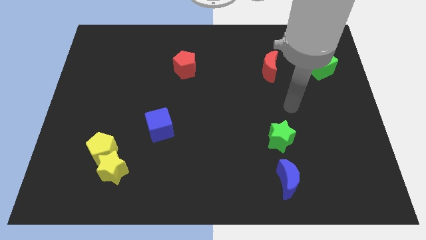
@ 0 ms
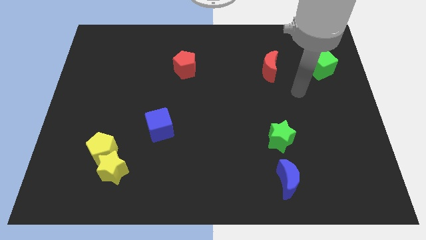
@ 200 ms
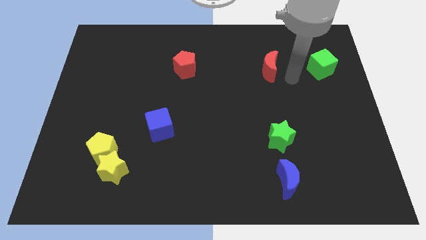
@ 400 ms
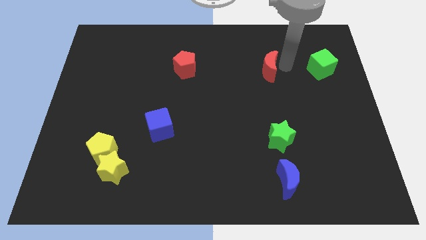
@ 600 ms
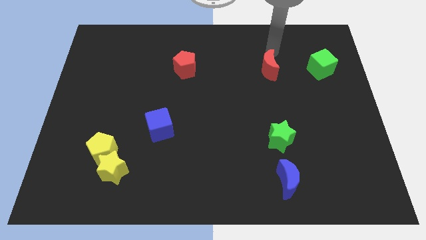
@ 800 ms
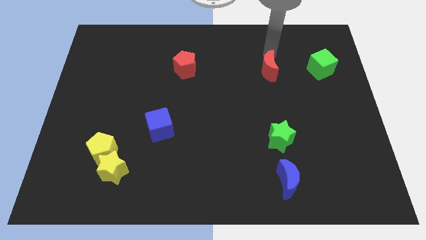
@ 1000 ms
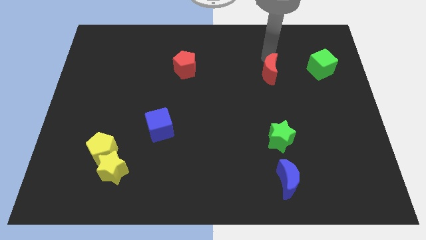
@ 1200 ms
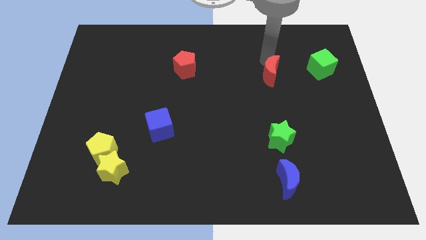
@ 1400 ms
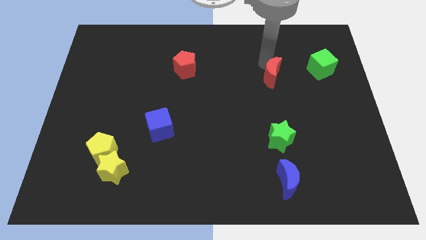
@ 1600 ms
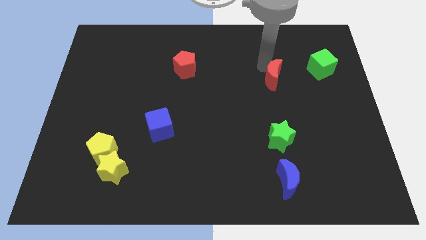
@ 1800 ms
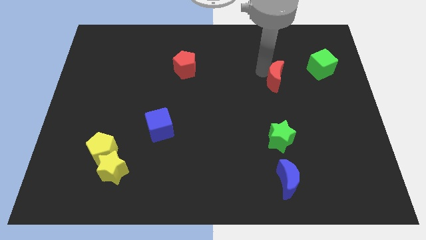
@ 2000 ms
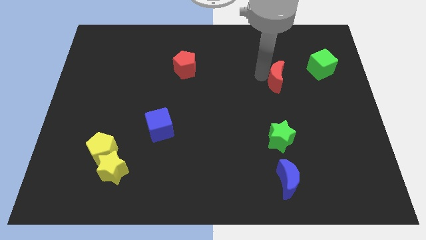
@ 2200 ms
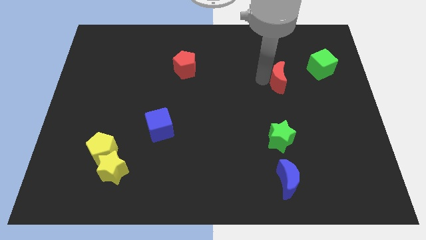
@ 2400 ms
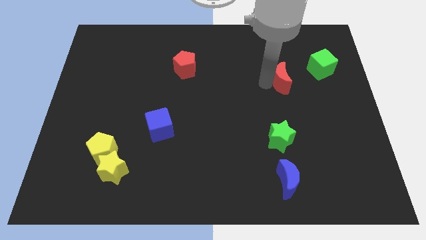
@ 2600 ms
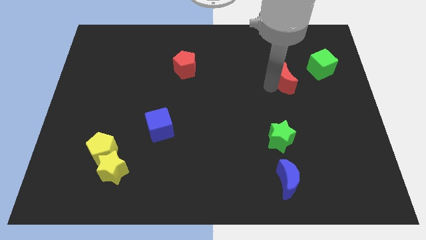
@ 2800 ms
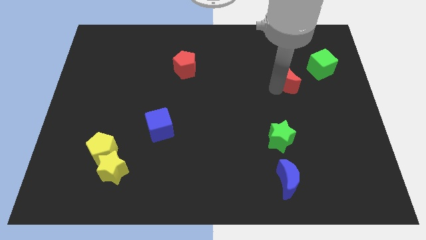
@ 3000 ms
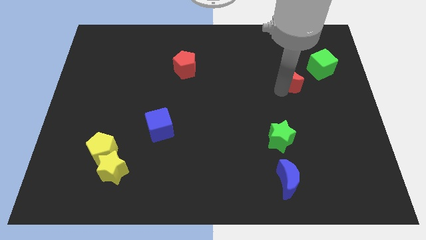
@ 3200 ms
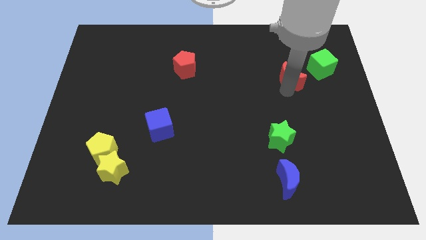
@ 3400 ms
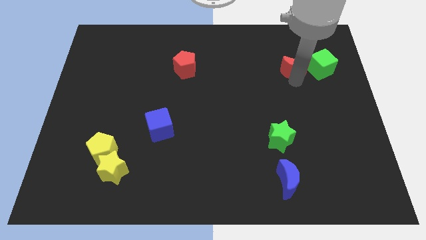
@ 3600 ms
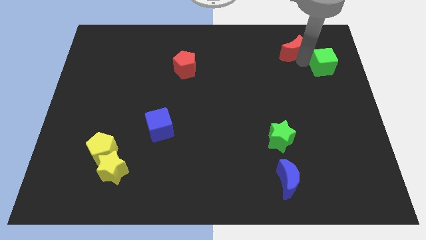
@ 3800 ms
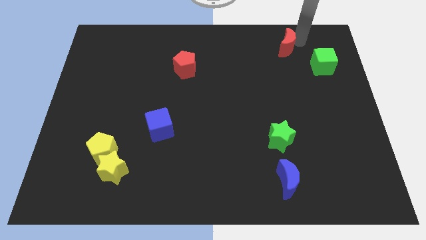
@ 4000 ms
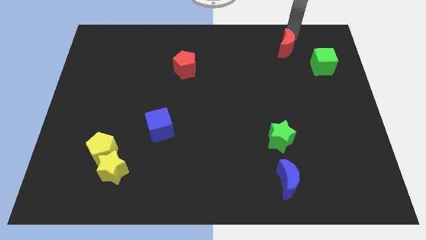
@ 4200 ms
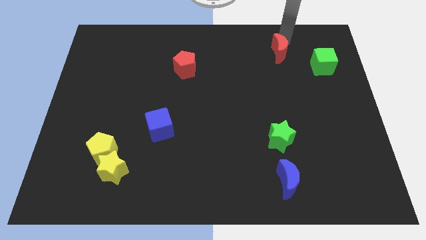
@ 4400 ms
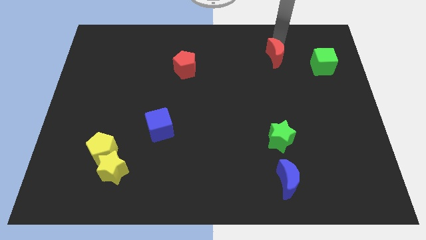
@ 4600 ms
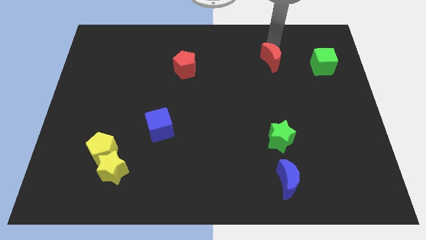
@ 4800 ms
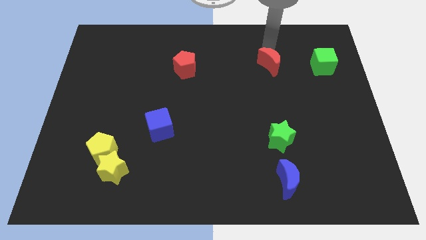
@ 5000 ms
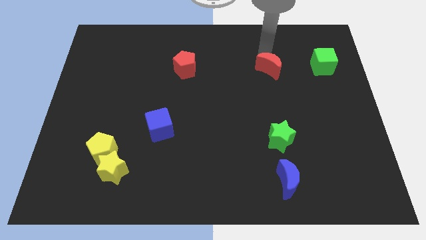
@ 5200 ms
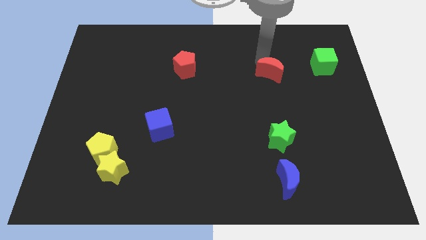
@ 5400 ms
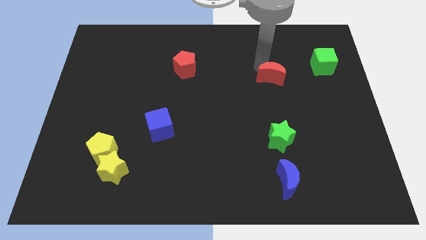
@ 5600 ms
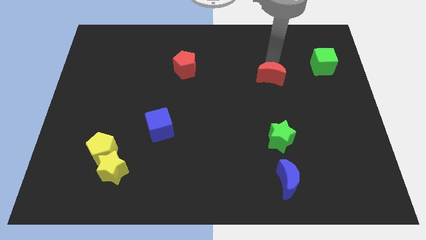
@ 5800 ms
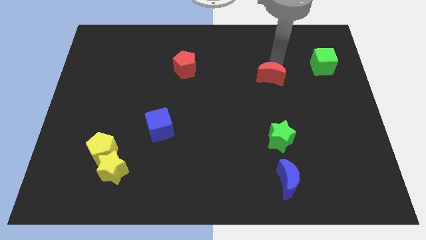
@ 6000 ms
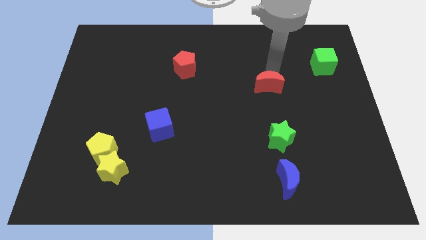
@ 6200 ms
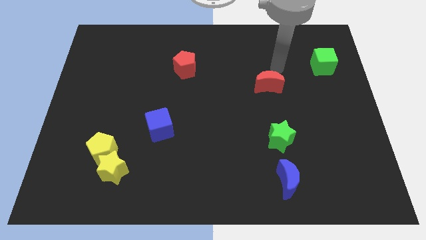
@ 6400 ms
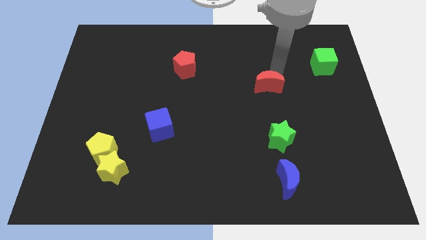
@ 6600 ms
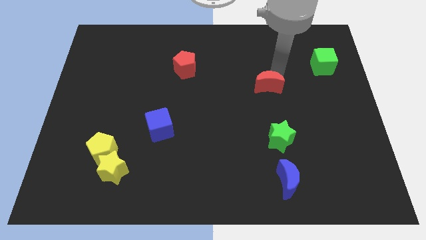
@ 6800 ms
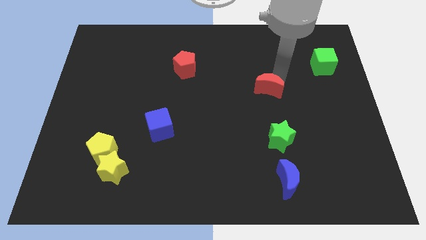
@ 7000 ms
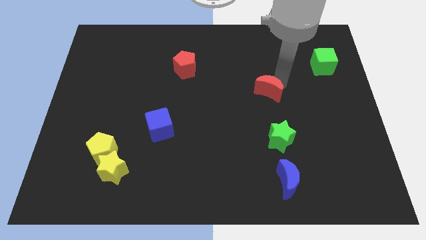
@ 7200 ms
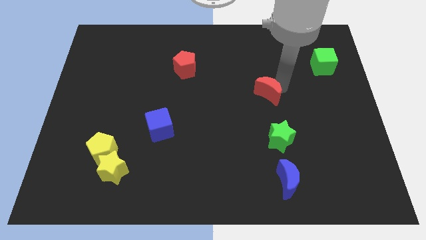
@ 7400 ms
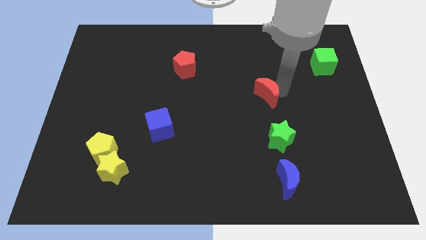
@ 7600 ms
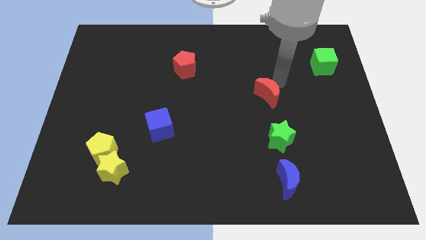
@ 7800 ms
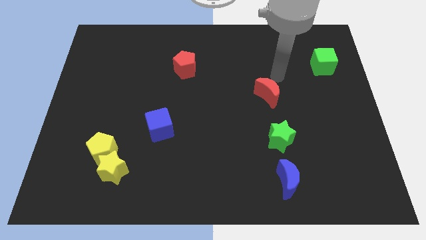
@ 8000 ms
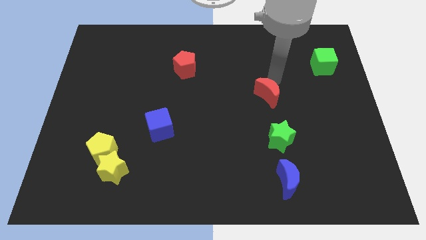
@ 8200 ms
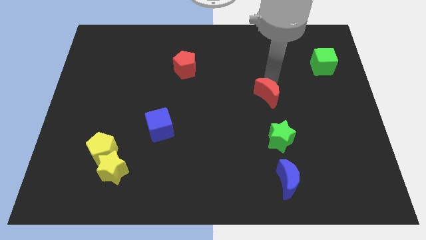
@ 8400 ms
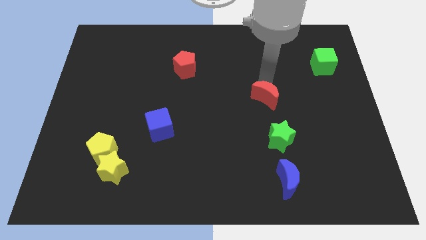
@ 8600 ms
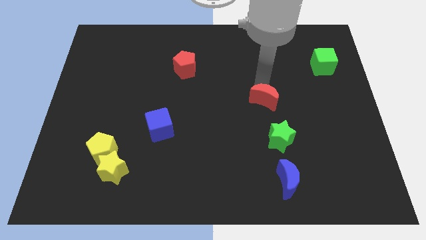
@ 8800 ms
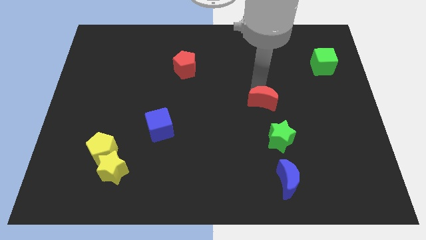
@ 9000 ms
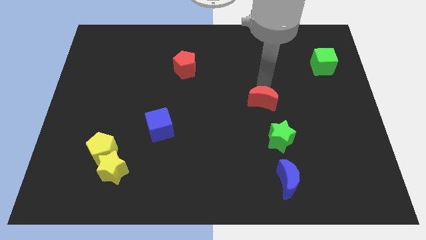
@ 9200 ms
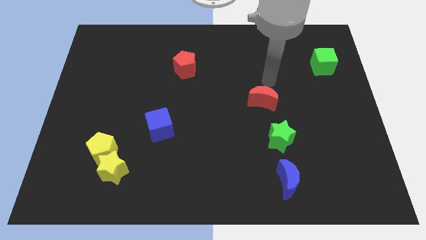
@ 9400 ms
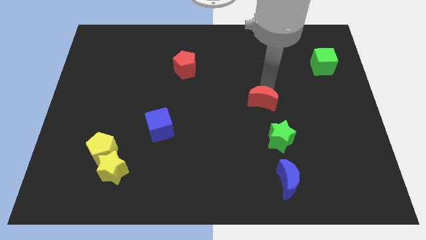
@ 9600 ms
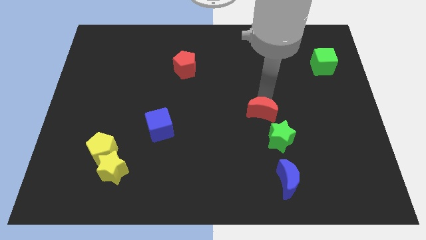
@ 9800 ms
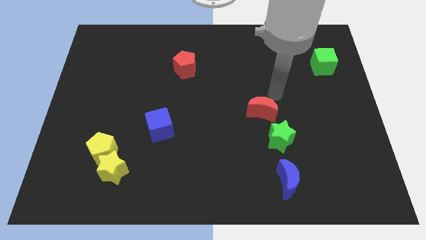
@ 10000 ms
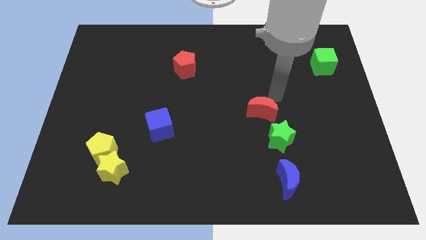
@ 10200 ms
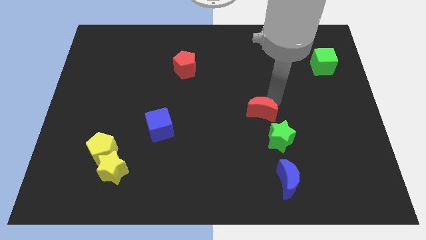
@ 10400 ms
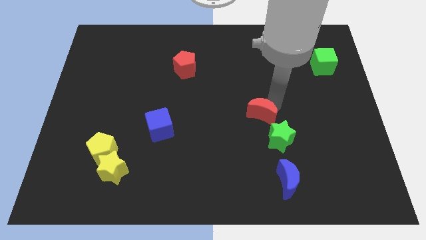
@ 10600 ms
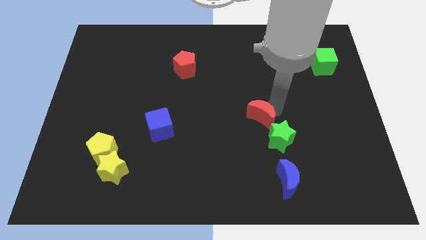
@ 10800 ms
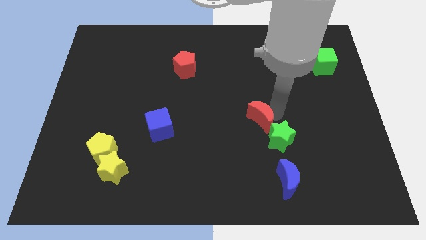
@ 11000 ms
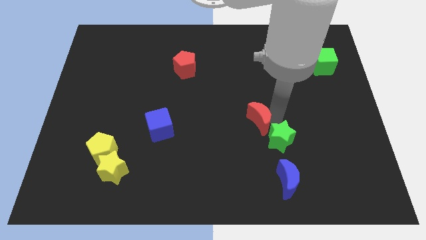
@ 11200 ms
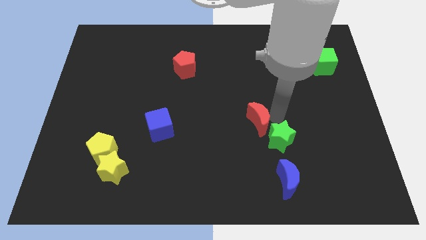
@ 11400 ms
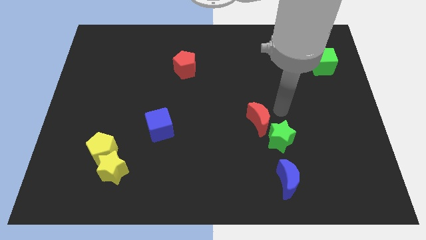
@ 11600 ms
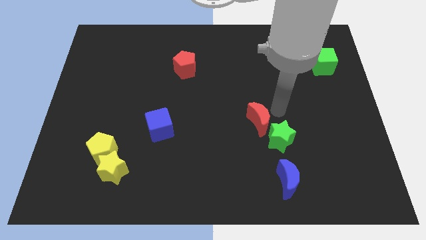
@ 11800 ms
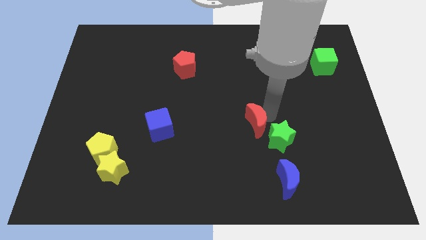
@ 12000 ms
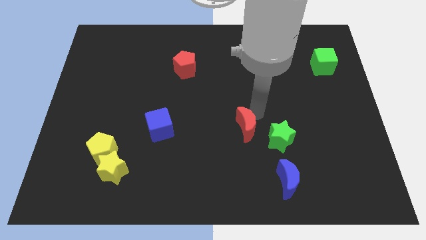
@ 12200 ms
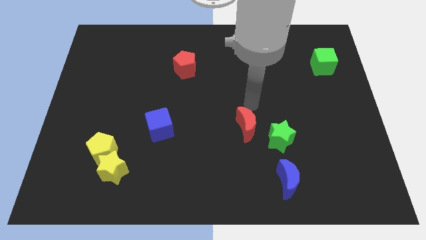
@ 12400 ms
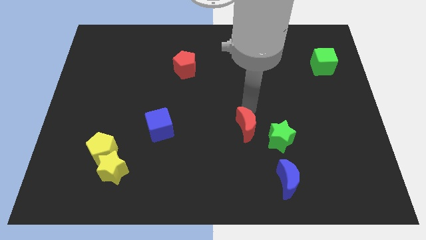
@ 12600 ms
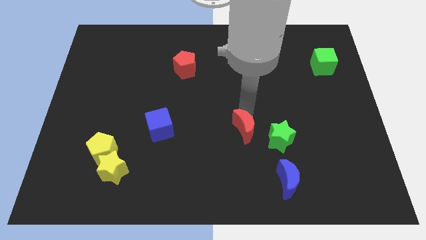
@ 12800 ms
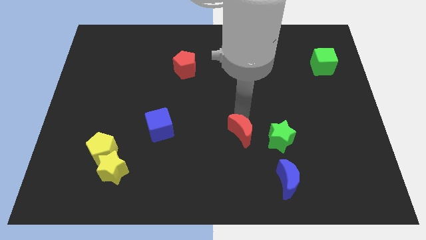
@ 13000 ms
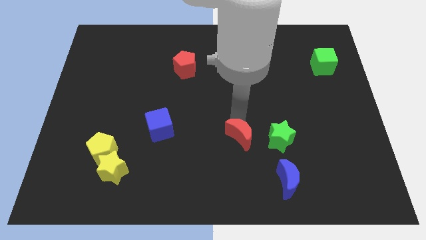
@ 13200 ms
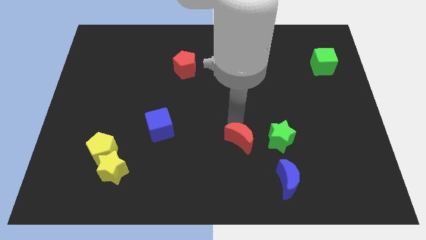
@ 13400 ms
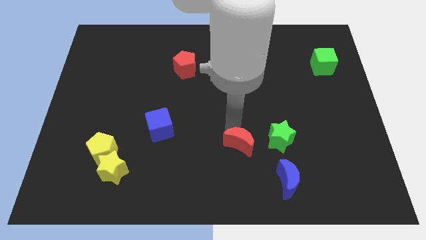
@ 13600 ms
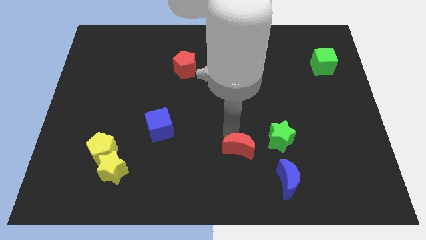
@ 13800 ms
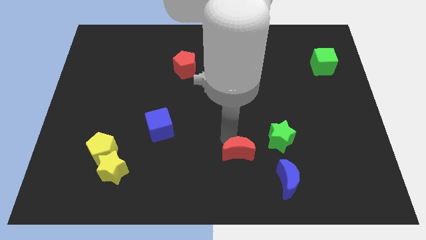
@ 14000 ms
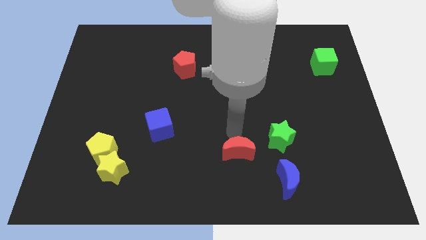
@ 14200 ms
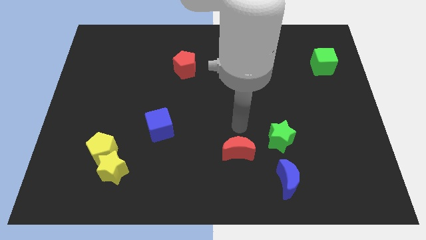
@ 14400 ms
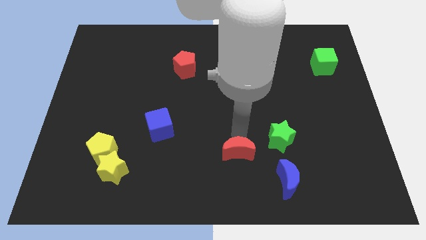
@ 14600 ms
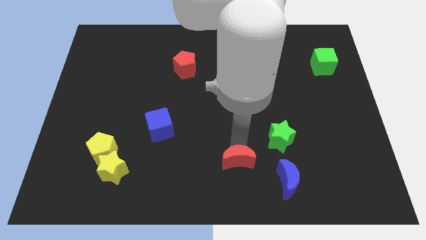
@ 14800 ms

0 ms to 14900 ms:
push the red moon to the bottom
